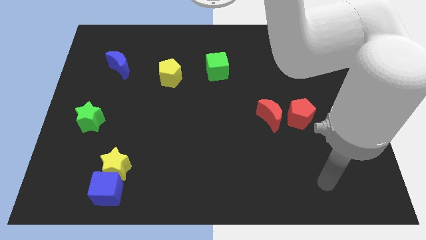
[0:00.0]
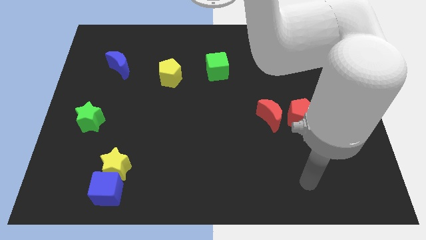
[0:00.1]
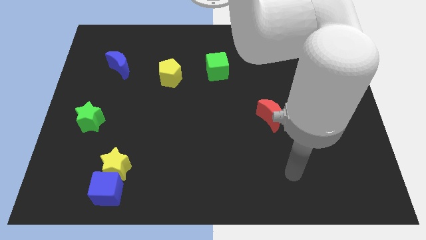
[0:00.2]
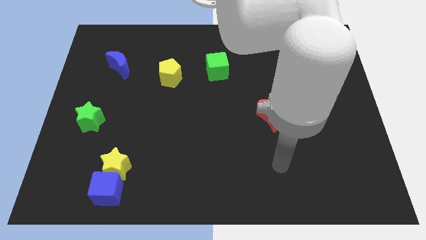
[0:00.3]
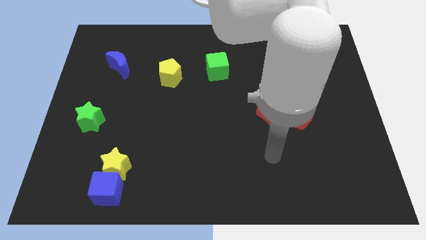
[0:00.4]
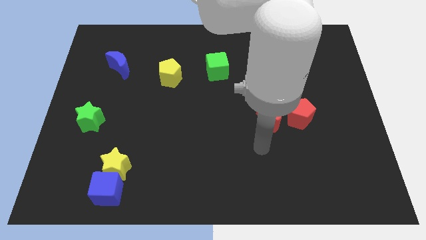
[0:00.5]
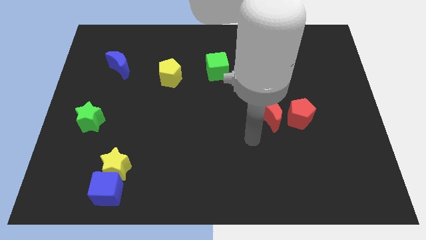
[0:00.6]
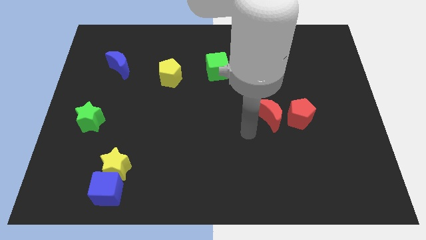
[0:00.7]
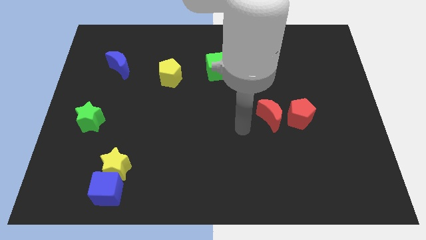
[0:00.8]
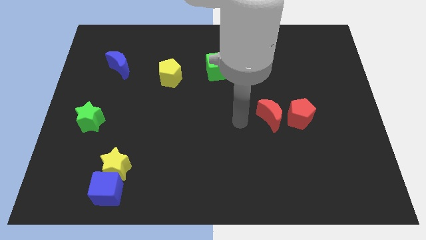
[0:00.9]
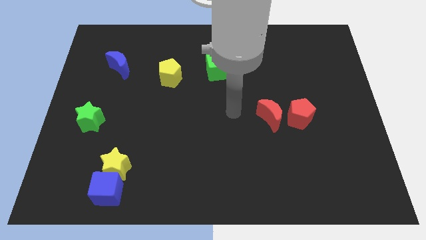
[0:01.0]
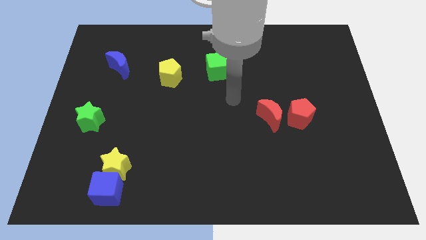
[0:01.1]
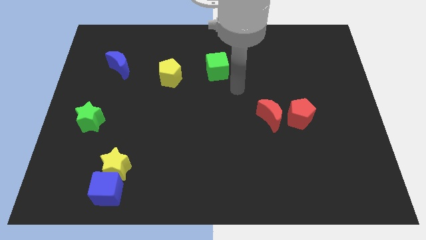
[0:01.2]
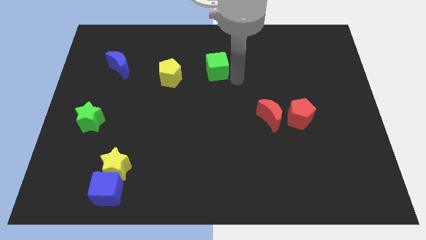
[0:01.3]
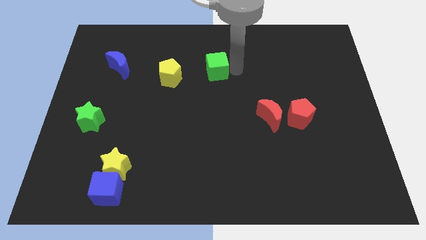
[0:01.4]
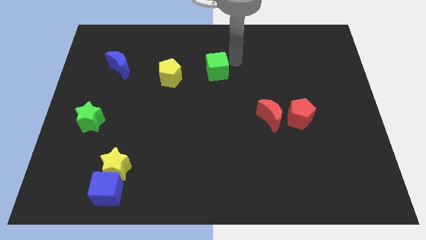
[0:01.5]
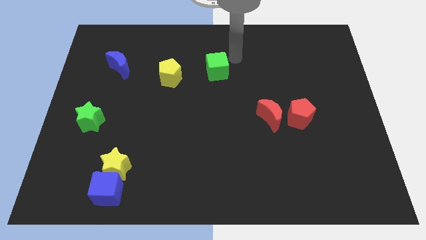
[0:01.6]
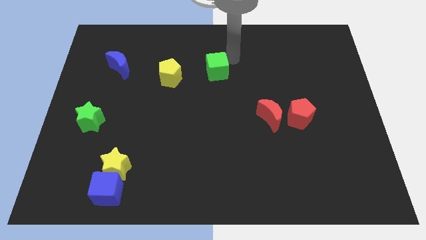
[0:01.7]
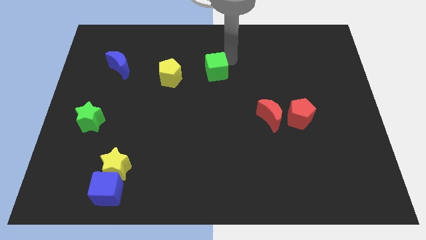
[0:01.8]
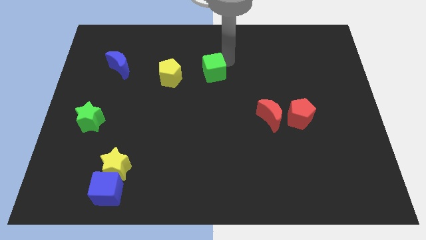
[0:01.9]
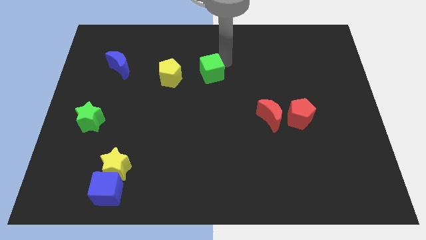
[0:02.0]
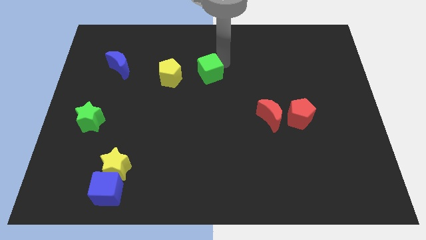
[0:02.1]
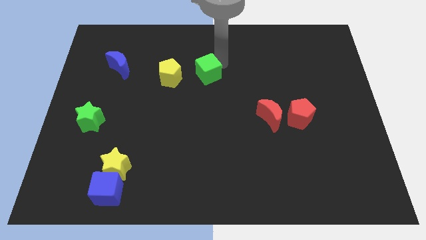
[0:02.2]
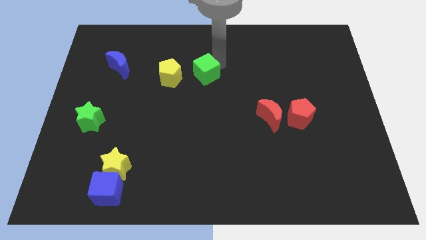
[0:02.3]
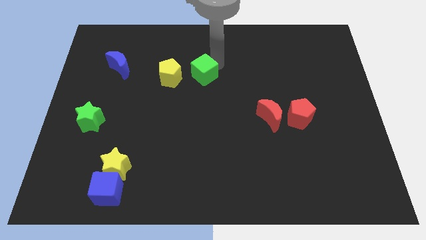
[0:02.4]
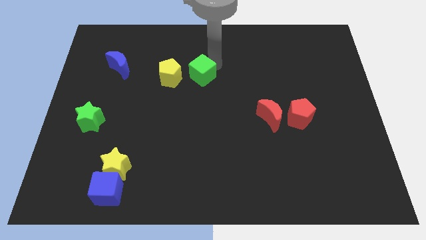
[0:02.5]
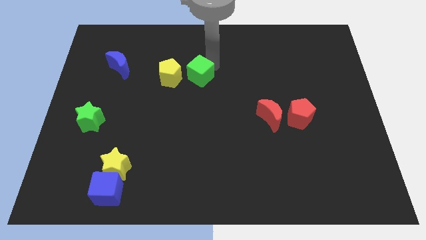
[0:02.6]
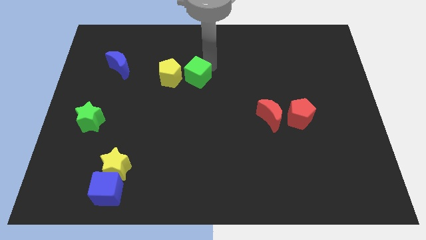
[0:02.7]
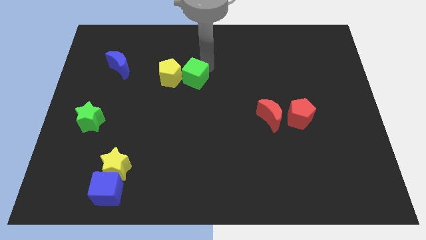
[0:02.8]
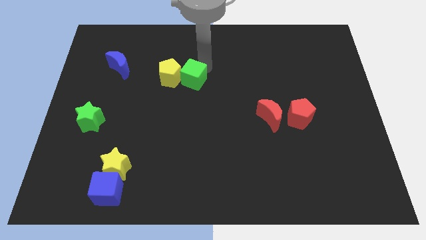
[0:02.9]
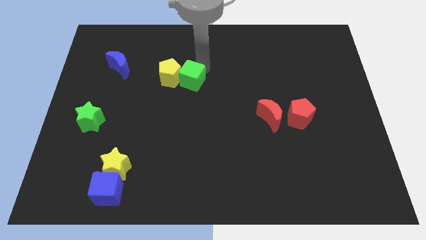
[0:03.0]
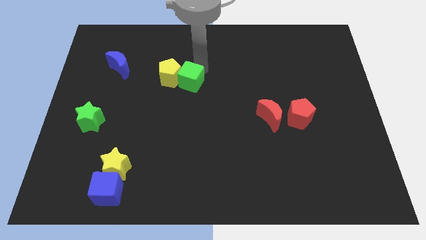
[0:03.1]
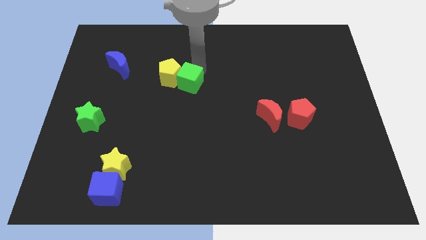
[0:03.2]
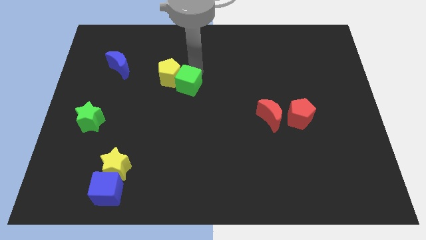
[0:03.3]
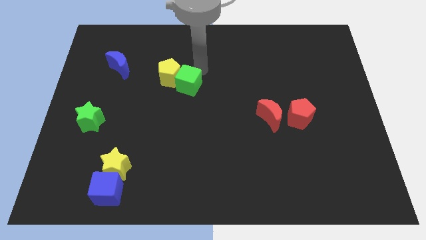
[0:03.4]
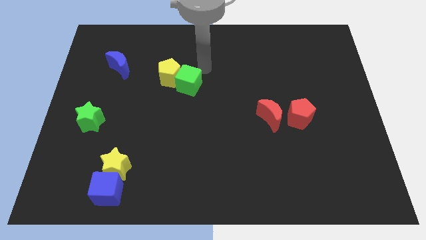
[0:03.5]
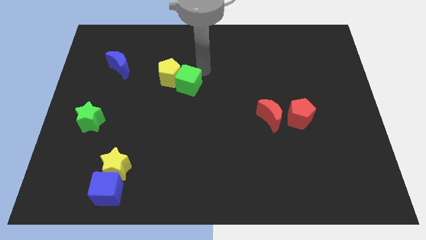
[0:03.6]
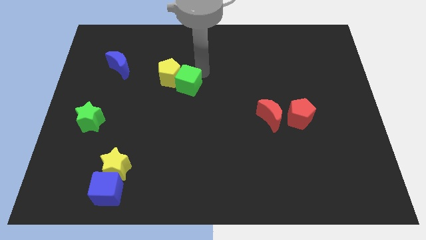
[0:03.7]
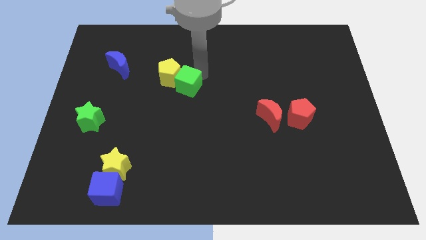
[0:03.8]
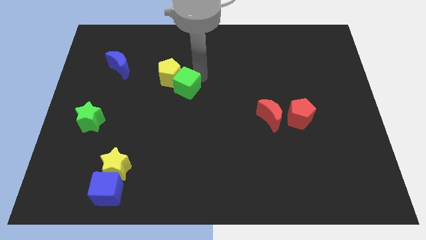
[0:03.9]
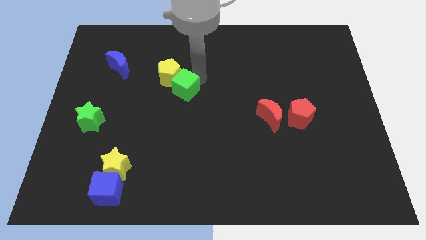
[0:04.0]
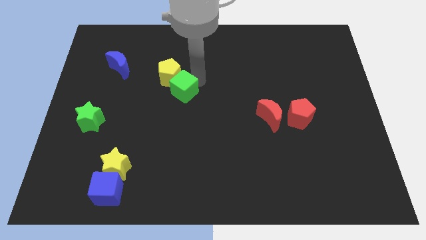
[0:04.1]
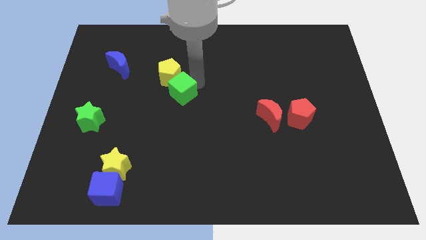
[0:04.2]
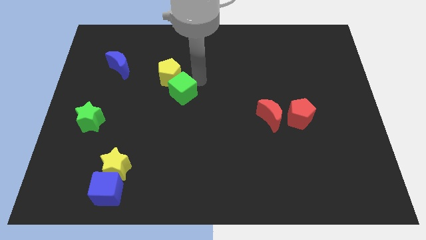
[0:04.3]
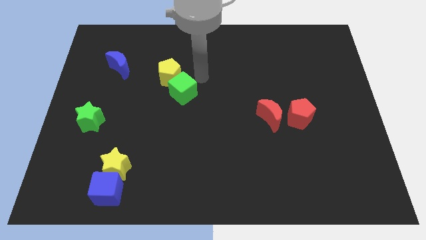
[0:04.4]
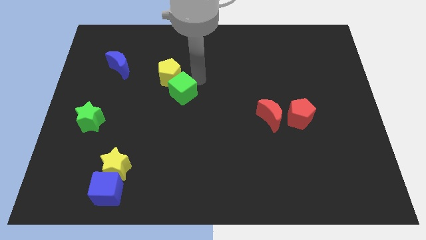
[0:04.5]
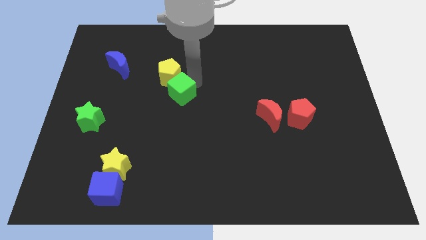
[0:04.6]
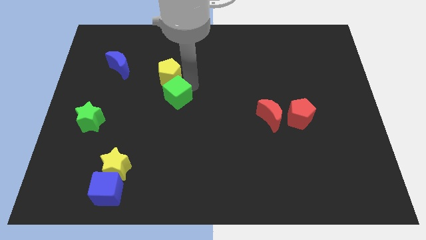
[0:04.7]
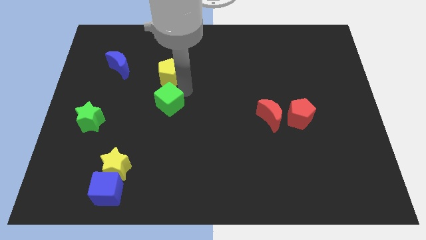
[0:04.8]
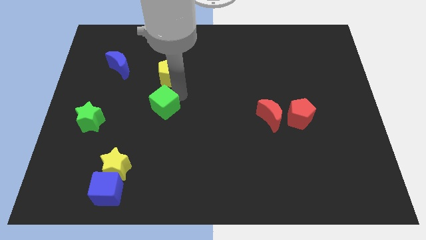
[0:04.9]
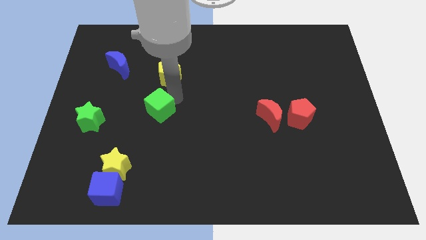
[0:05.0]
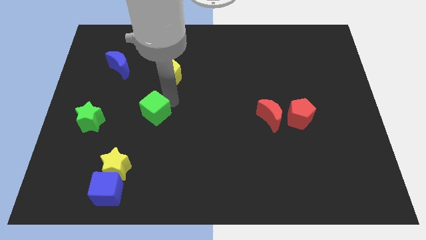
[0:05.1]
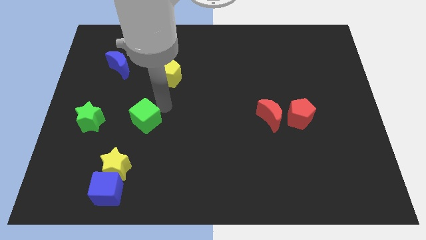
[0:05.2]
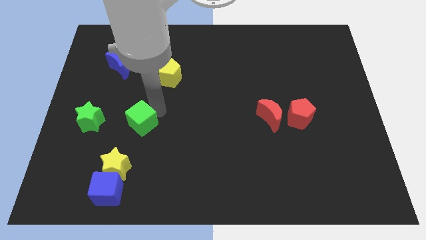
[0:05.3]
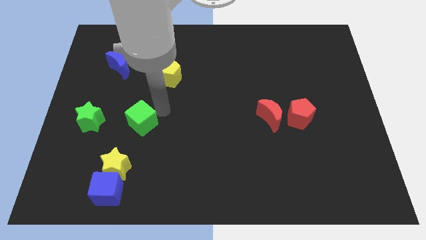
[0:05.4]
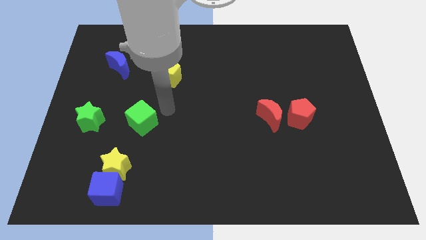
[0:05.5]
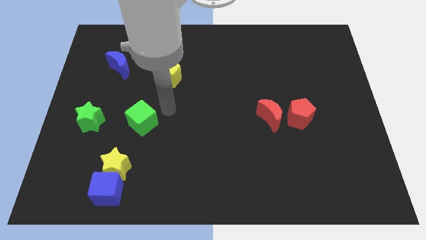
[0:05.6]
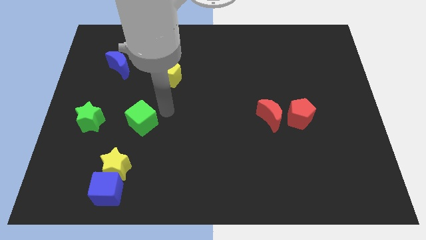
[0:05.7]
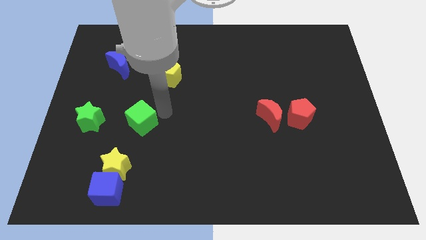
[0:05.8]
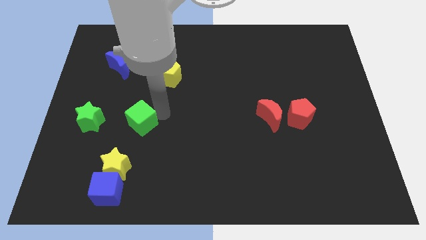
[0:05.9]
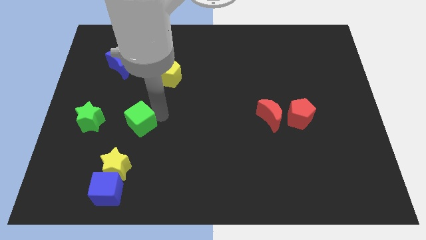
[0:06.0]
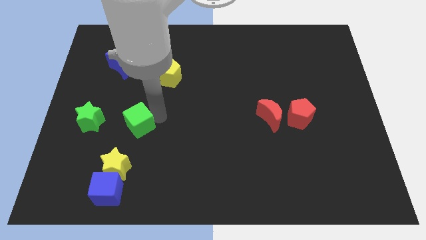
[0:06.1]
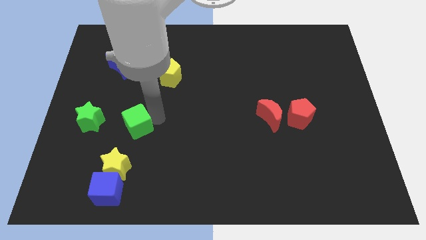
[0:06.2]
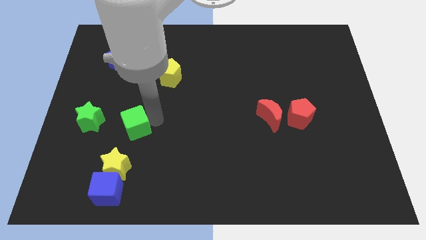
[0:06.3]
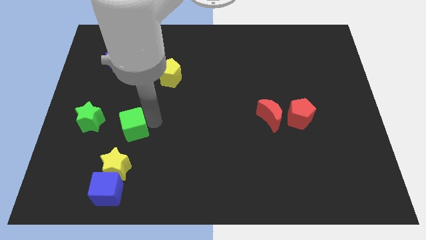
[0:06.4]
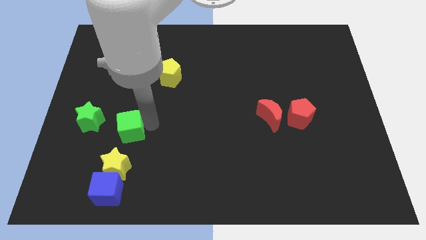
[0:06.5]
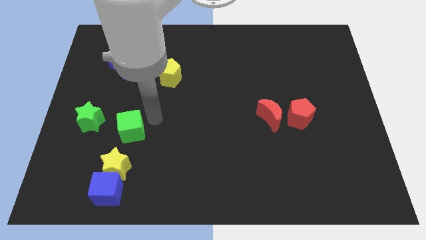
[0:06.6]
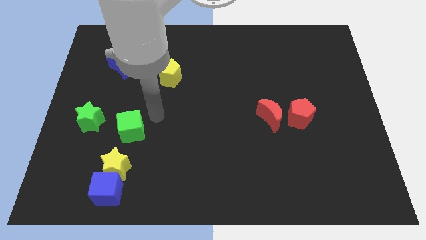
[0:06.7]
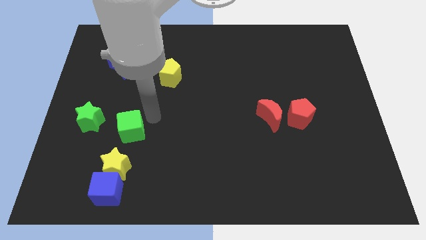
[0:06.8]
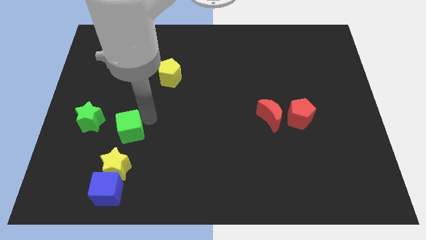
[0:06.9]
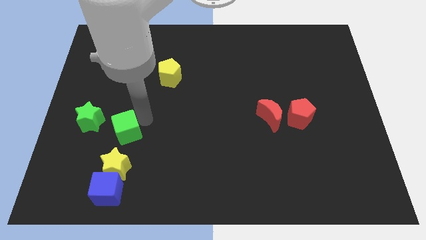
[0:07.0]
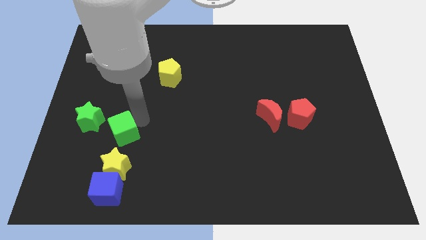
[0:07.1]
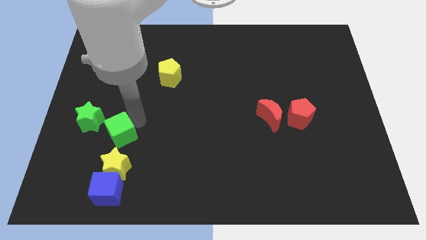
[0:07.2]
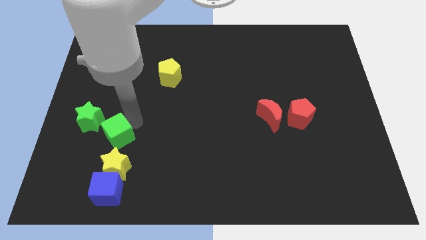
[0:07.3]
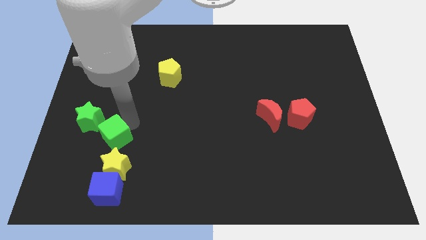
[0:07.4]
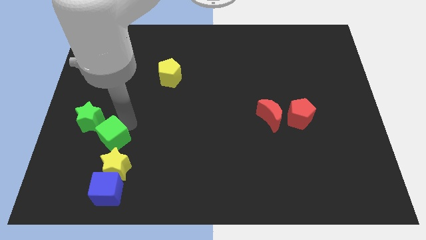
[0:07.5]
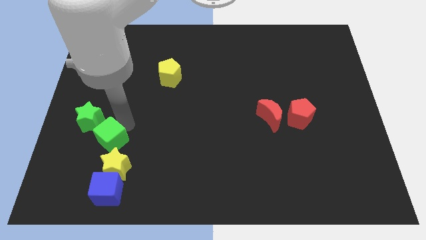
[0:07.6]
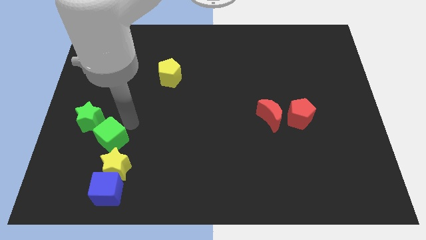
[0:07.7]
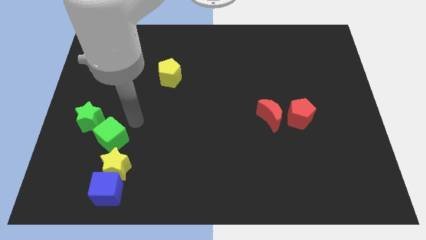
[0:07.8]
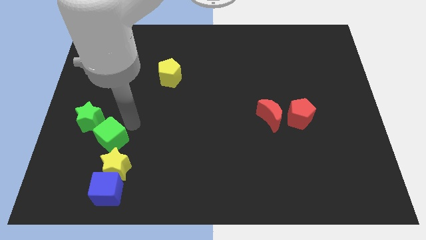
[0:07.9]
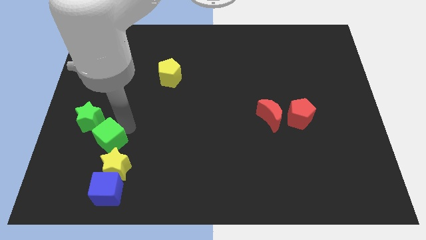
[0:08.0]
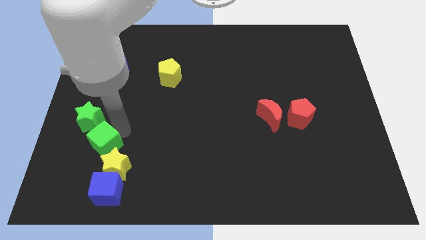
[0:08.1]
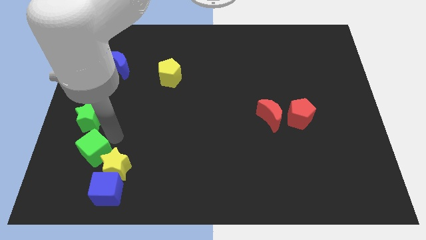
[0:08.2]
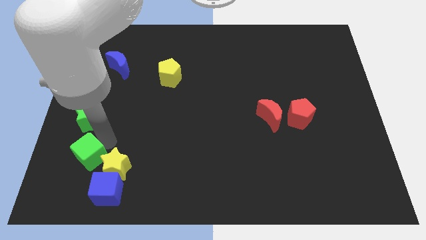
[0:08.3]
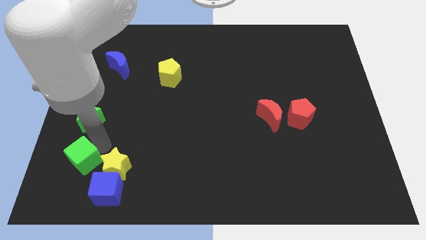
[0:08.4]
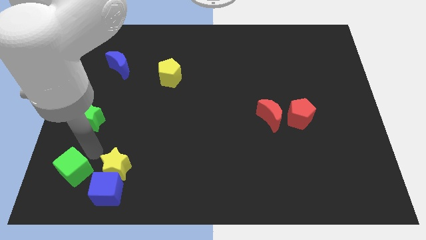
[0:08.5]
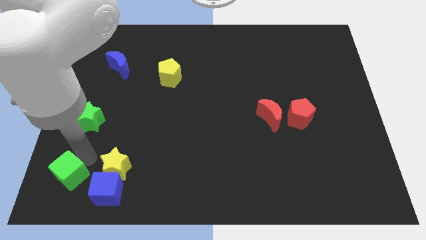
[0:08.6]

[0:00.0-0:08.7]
slide the green cube to the bottom left of the board
